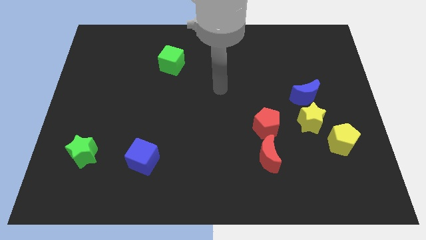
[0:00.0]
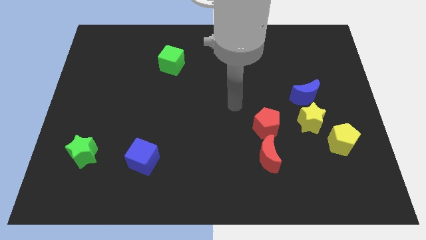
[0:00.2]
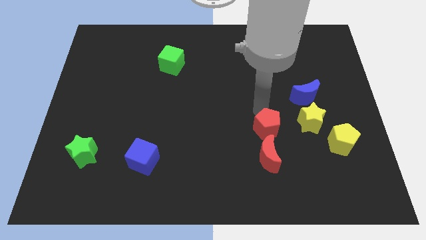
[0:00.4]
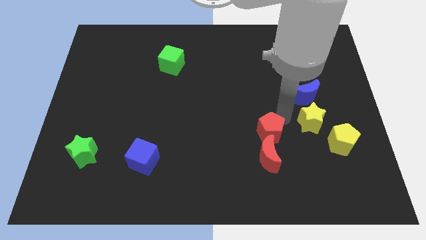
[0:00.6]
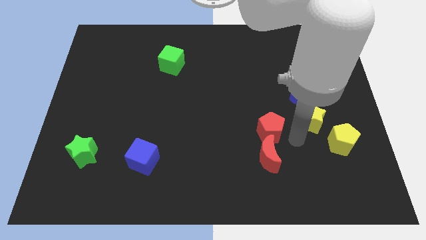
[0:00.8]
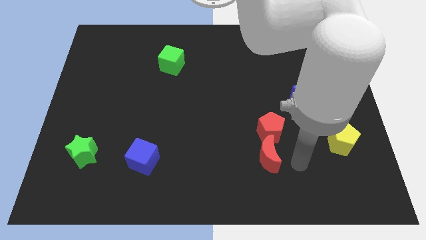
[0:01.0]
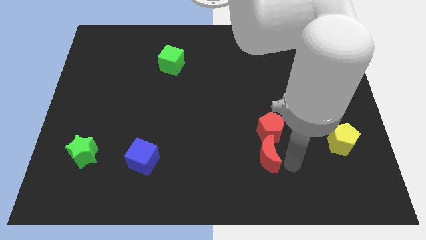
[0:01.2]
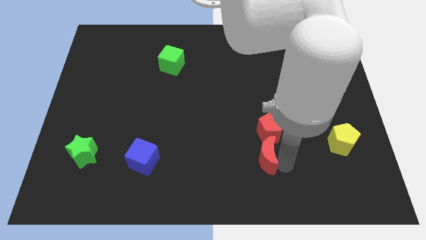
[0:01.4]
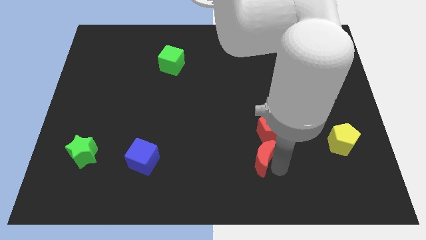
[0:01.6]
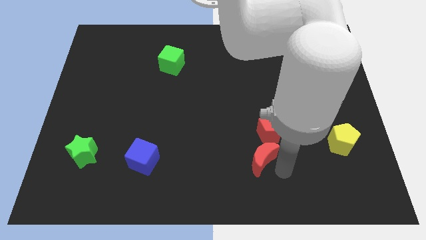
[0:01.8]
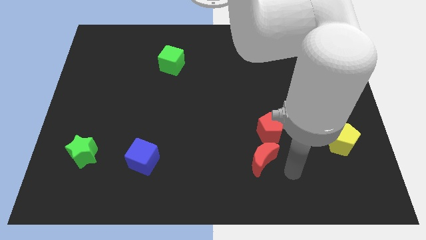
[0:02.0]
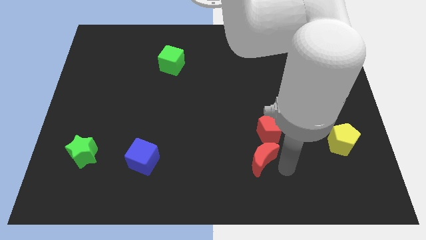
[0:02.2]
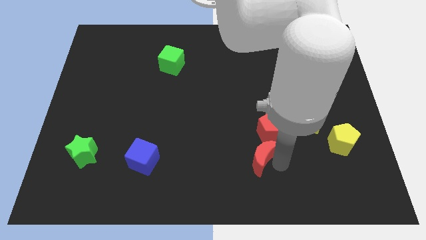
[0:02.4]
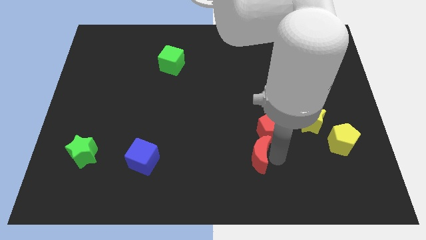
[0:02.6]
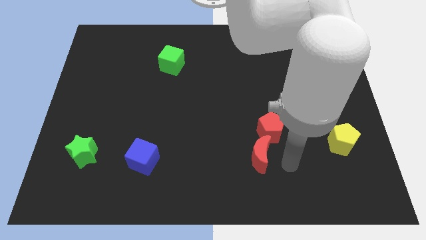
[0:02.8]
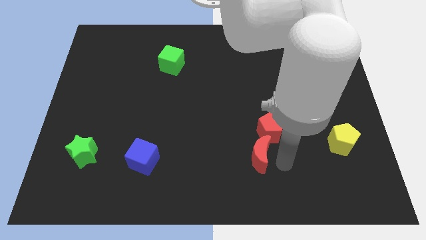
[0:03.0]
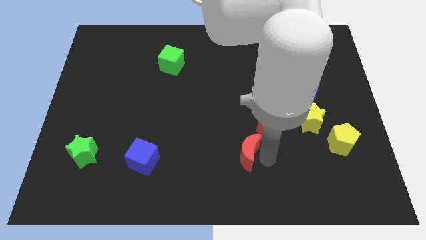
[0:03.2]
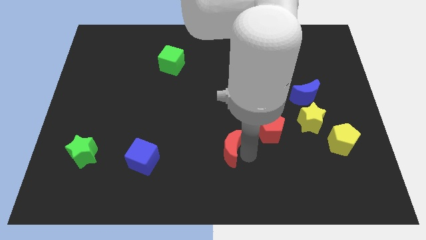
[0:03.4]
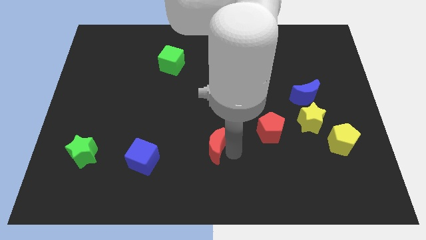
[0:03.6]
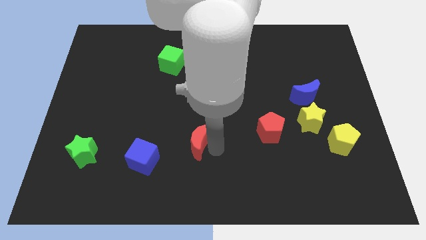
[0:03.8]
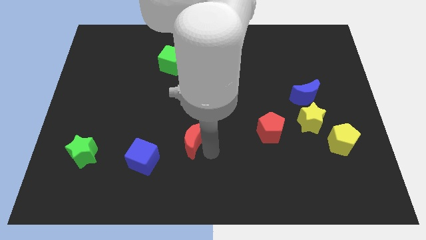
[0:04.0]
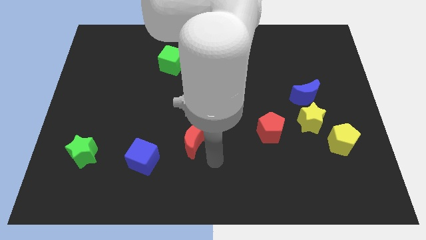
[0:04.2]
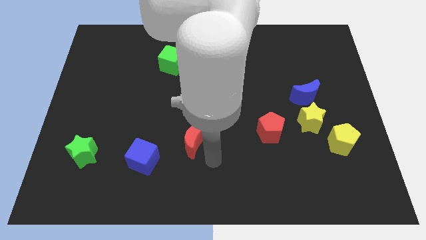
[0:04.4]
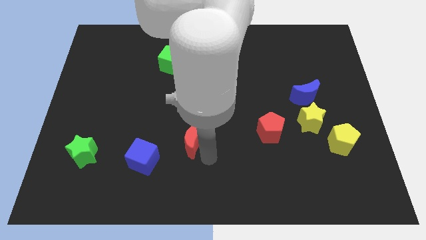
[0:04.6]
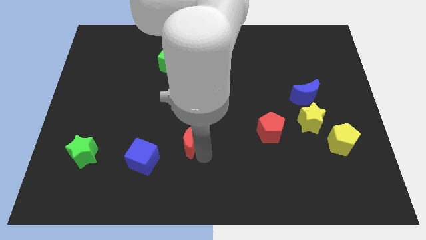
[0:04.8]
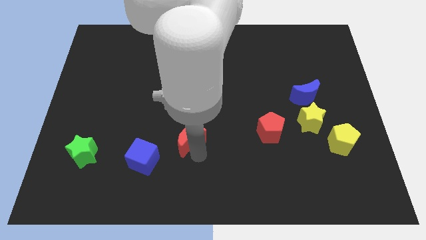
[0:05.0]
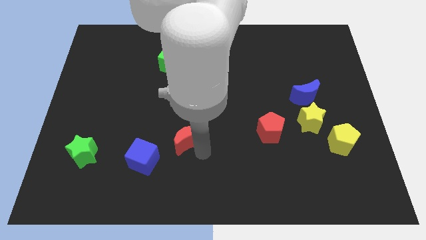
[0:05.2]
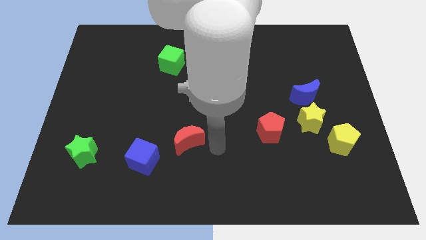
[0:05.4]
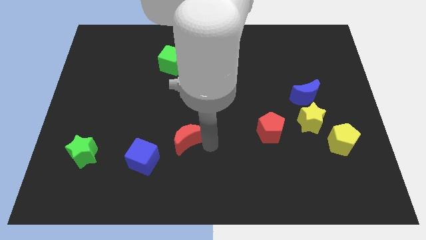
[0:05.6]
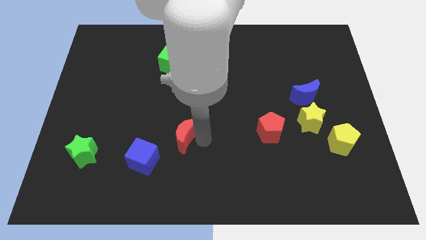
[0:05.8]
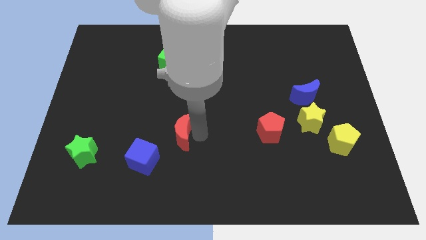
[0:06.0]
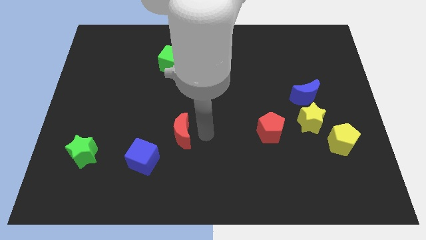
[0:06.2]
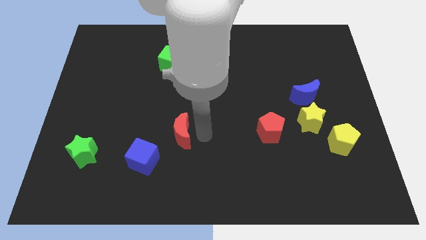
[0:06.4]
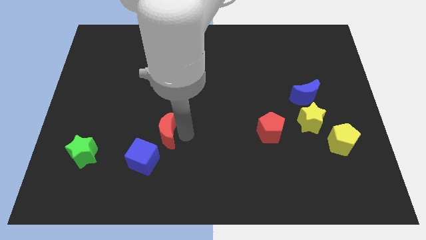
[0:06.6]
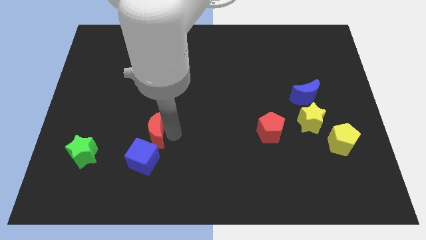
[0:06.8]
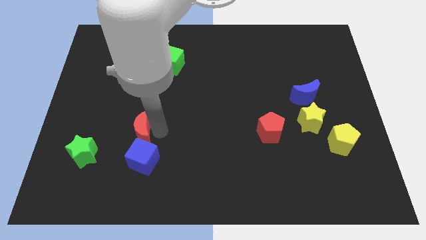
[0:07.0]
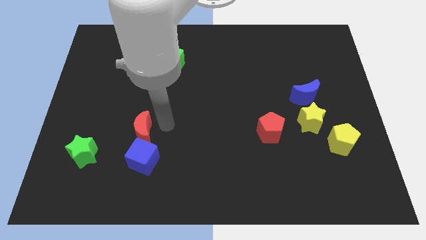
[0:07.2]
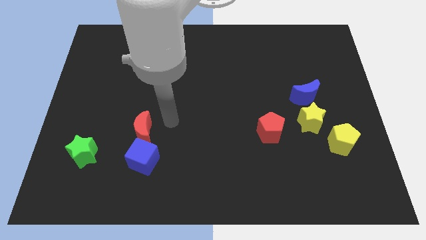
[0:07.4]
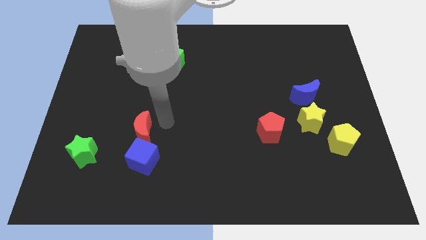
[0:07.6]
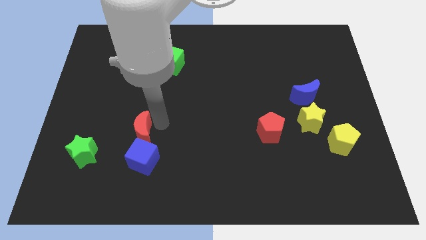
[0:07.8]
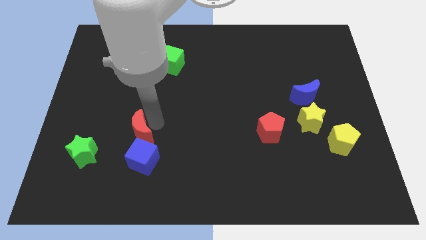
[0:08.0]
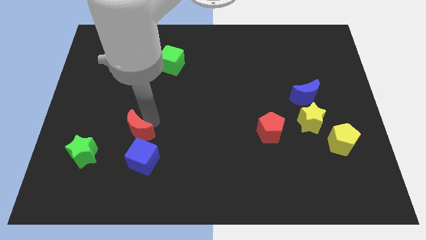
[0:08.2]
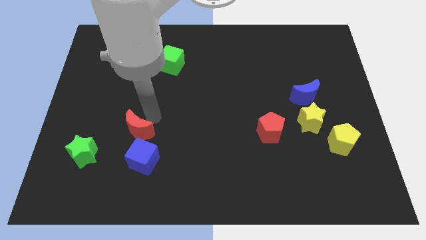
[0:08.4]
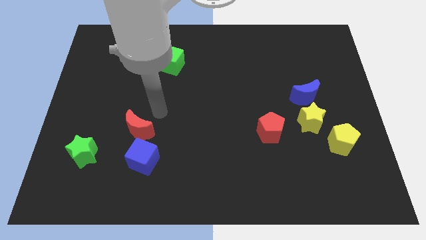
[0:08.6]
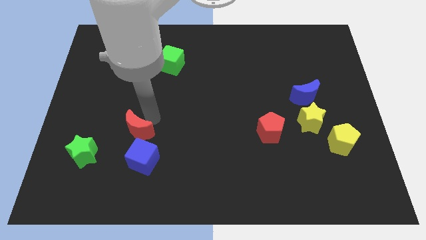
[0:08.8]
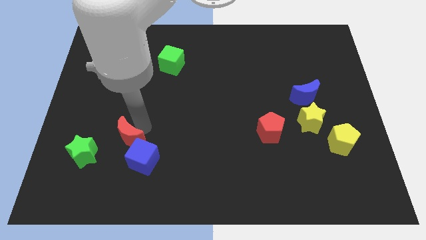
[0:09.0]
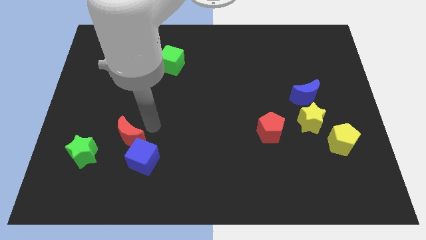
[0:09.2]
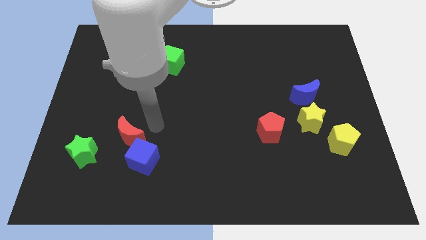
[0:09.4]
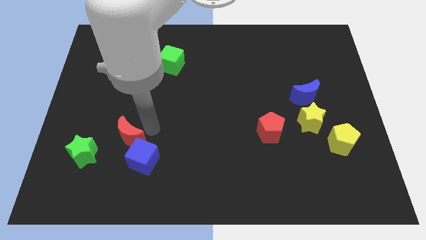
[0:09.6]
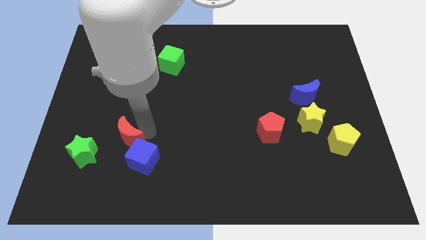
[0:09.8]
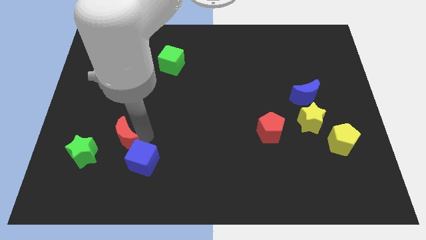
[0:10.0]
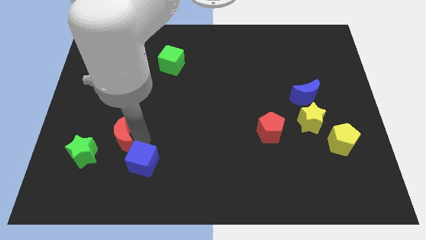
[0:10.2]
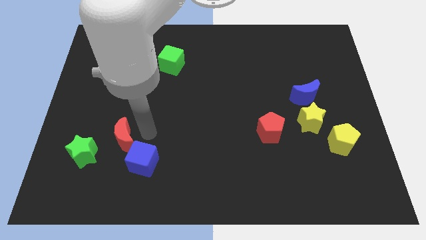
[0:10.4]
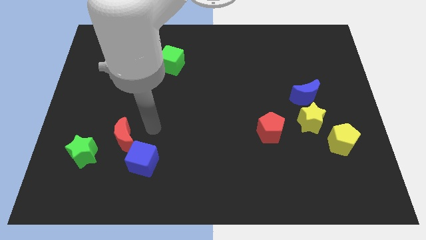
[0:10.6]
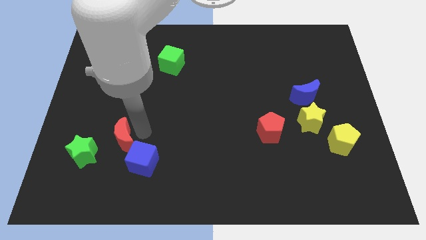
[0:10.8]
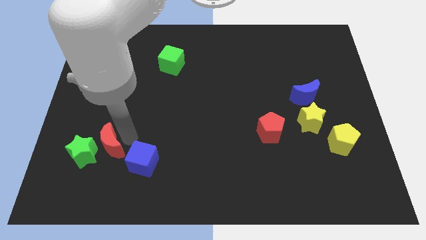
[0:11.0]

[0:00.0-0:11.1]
slide the red moon next to the green star
